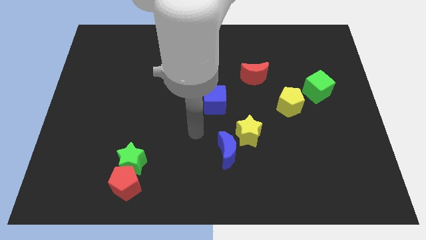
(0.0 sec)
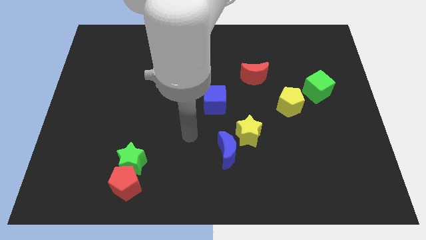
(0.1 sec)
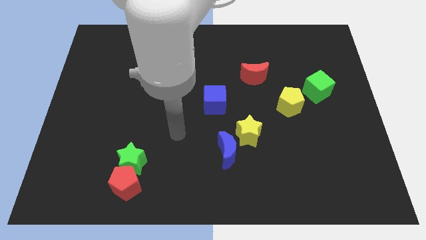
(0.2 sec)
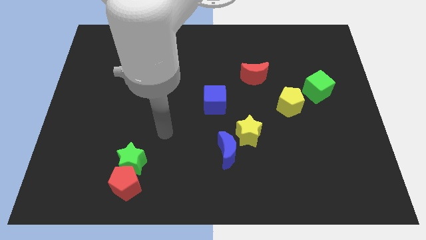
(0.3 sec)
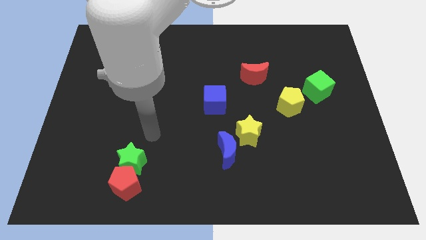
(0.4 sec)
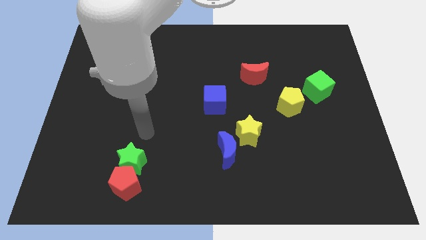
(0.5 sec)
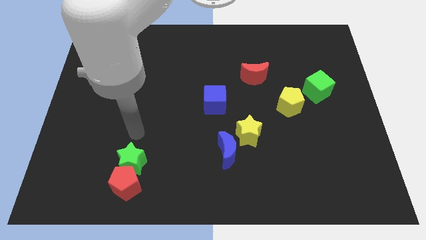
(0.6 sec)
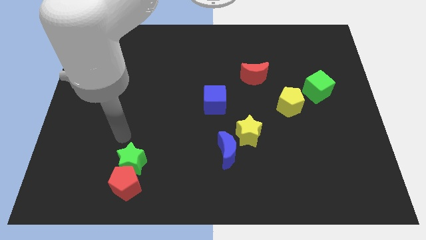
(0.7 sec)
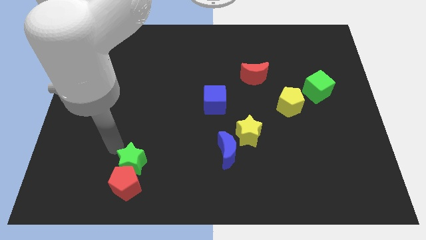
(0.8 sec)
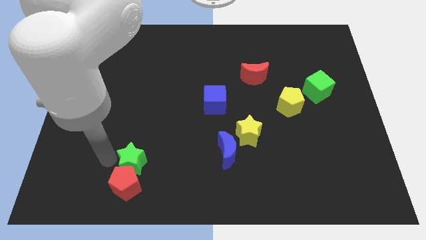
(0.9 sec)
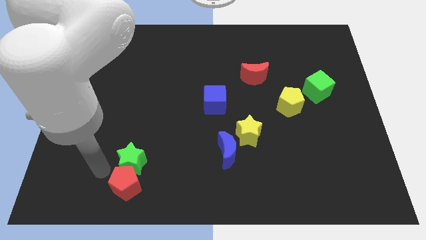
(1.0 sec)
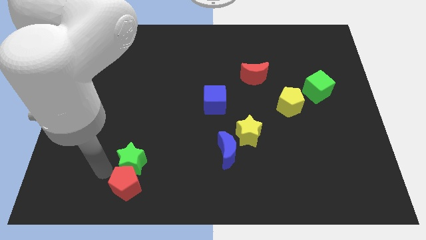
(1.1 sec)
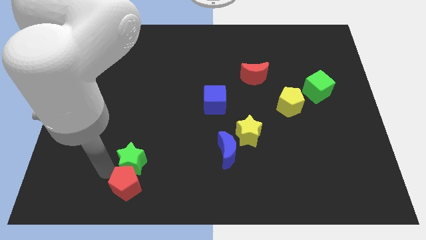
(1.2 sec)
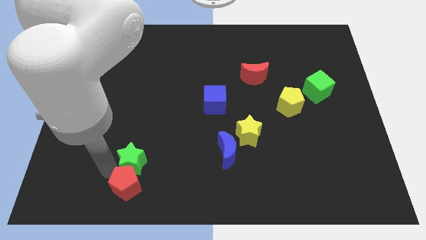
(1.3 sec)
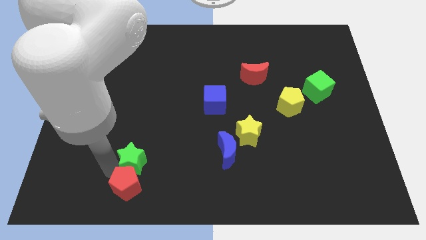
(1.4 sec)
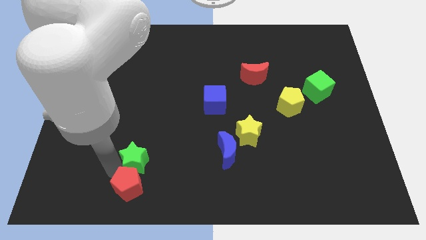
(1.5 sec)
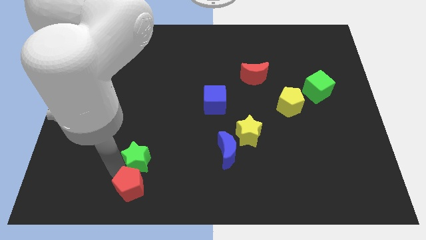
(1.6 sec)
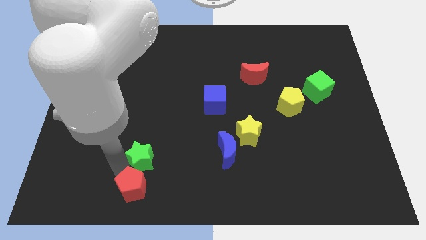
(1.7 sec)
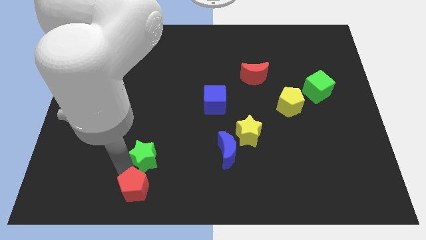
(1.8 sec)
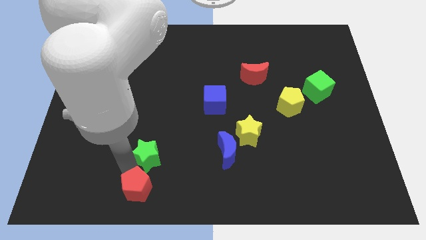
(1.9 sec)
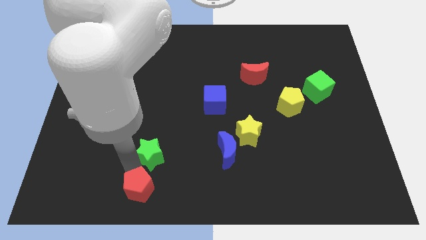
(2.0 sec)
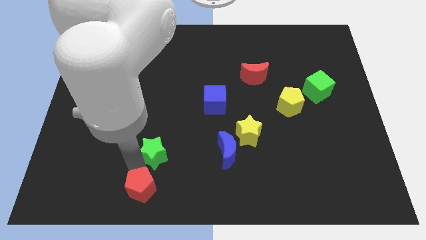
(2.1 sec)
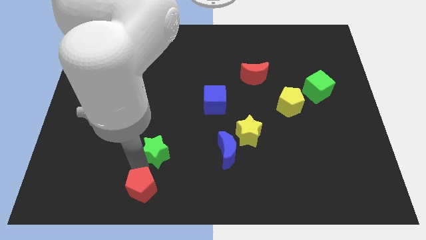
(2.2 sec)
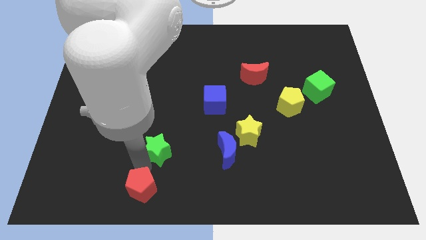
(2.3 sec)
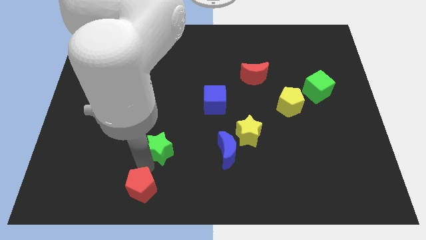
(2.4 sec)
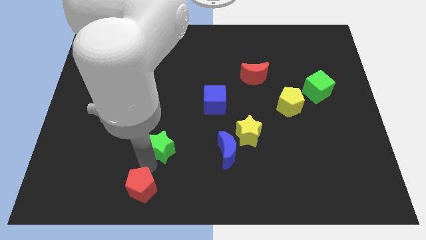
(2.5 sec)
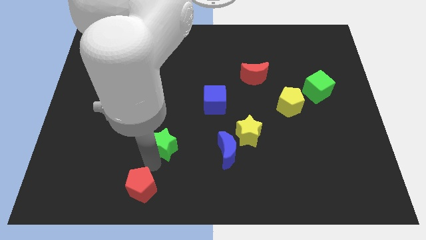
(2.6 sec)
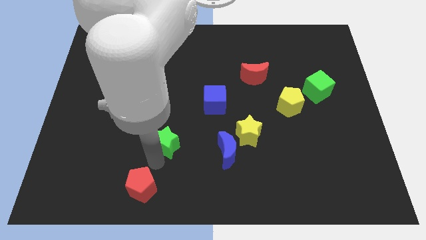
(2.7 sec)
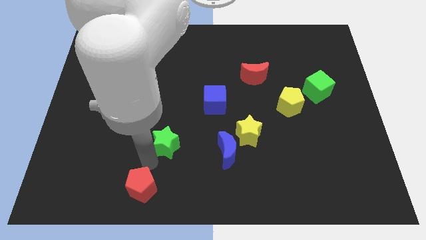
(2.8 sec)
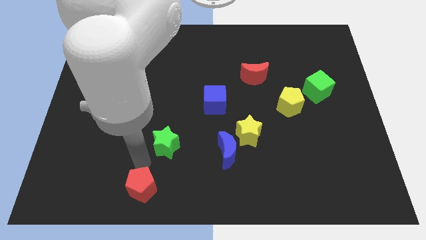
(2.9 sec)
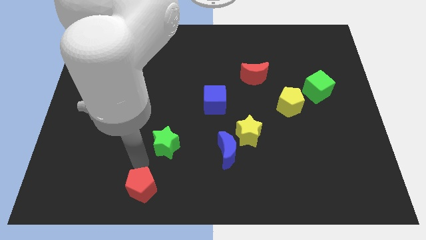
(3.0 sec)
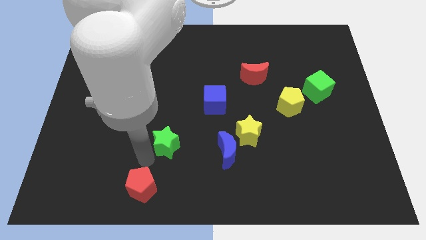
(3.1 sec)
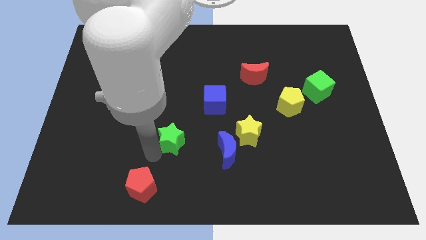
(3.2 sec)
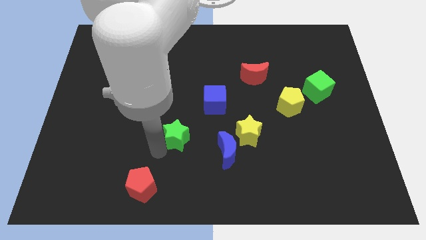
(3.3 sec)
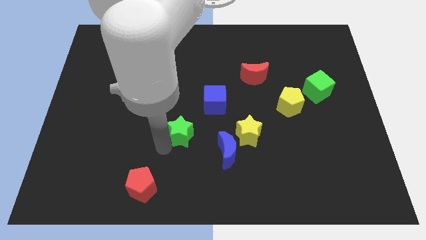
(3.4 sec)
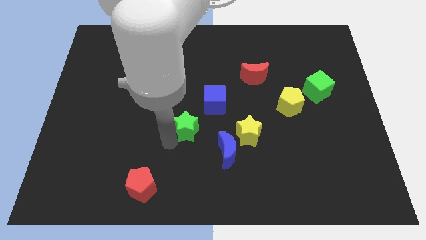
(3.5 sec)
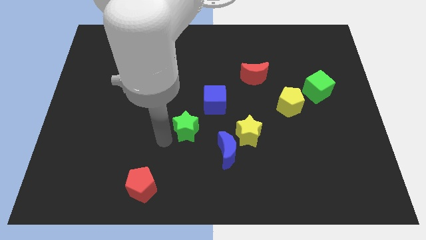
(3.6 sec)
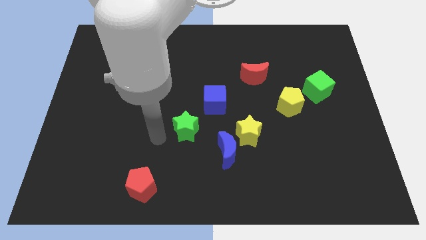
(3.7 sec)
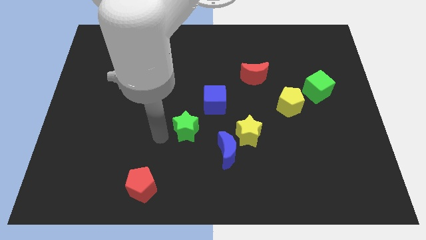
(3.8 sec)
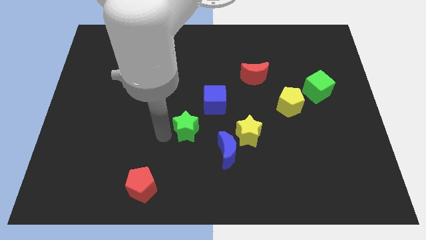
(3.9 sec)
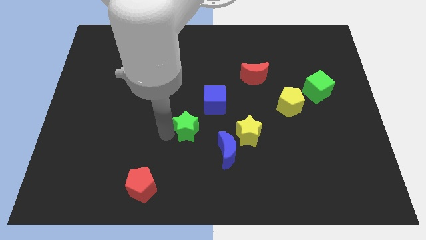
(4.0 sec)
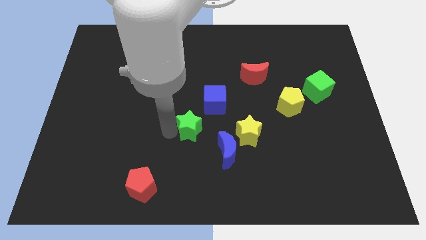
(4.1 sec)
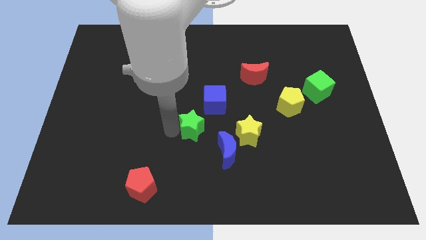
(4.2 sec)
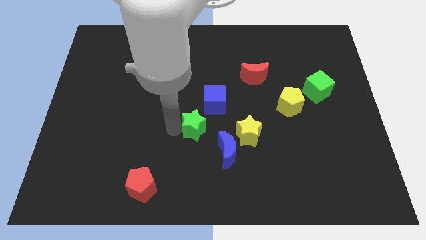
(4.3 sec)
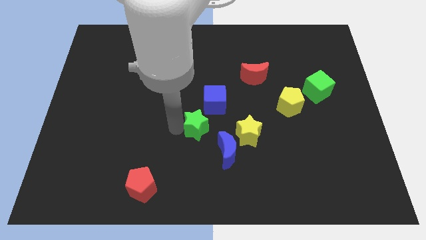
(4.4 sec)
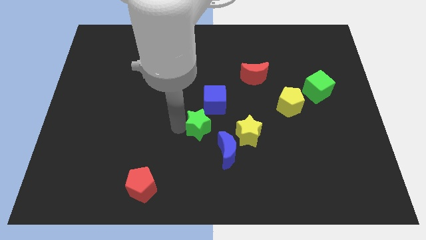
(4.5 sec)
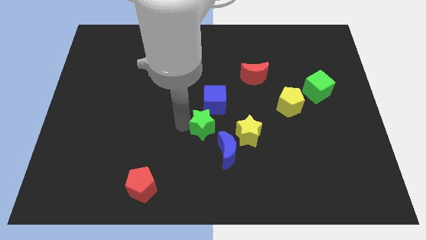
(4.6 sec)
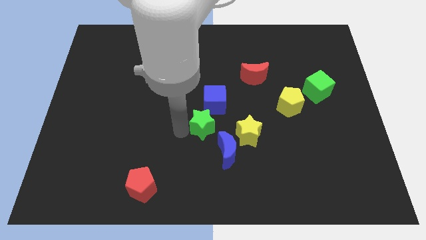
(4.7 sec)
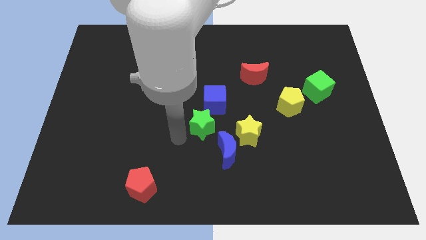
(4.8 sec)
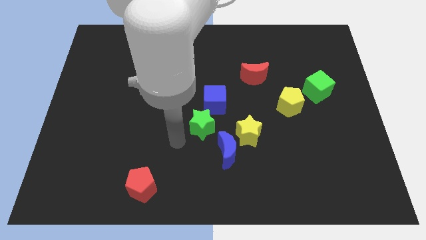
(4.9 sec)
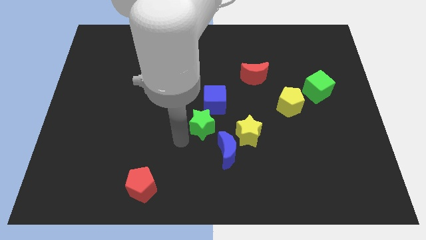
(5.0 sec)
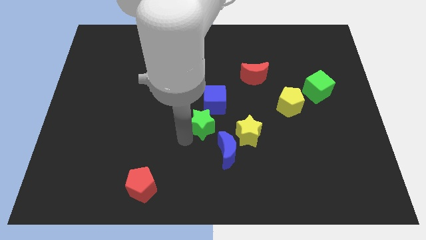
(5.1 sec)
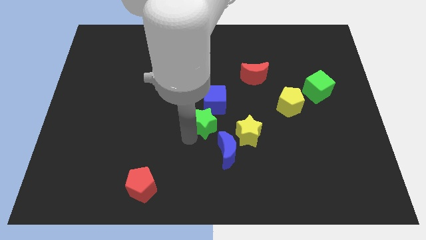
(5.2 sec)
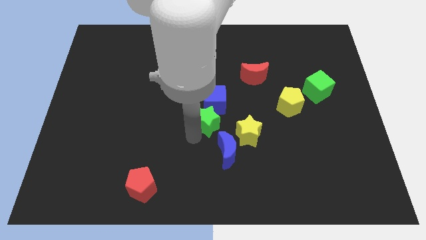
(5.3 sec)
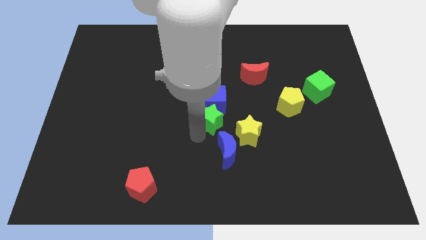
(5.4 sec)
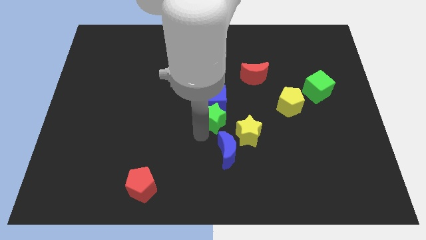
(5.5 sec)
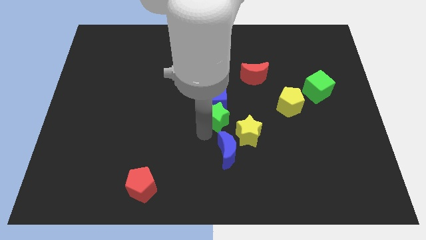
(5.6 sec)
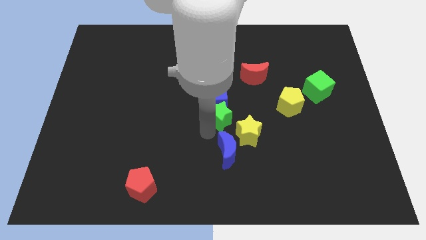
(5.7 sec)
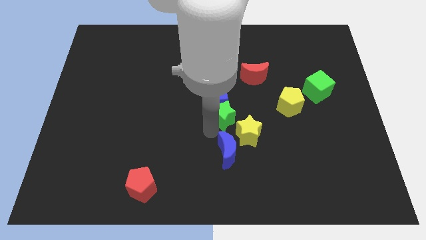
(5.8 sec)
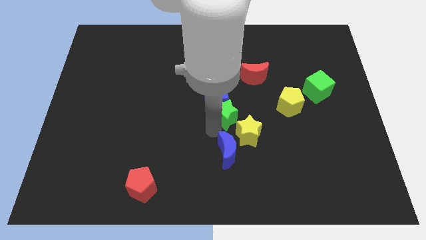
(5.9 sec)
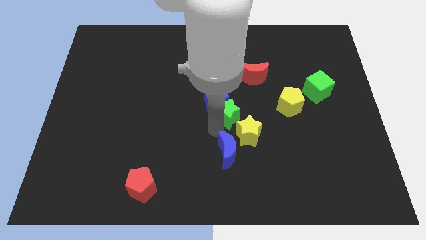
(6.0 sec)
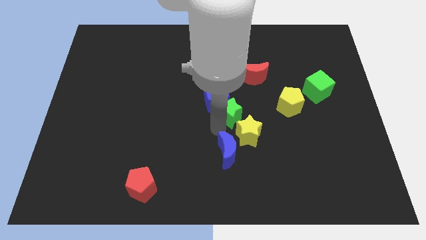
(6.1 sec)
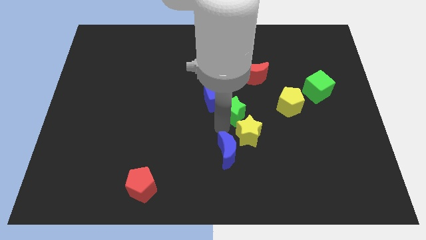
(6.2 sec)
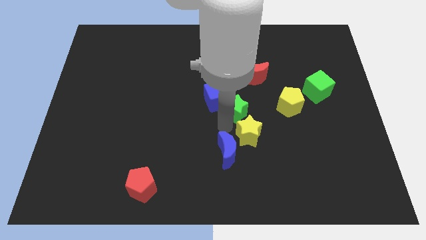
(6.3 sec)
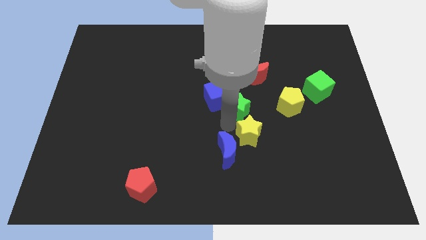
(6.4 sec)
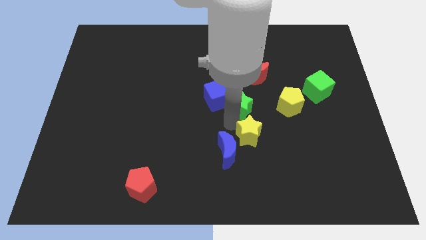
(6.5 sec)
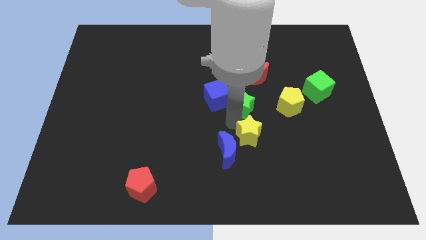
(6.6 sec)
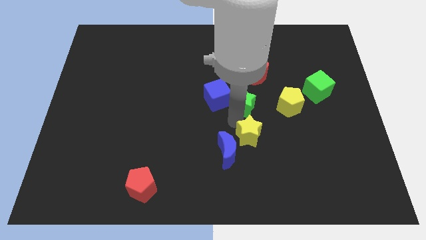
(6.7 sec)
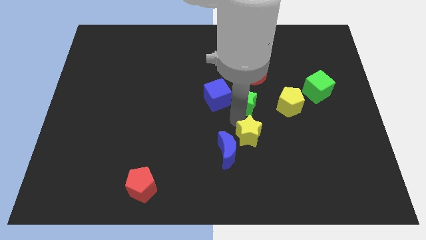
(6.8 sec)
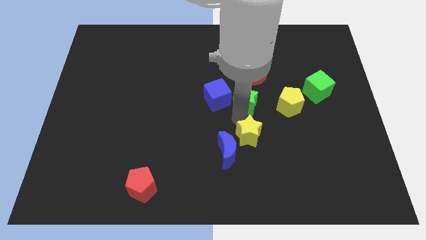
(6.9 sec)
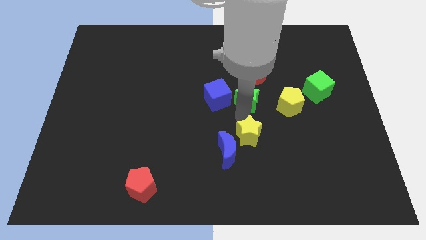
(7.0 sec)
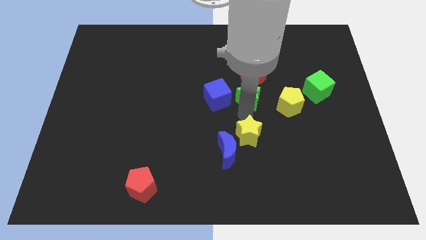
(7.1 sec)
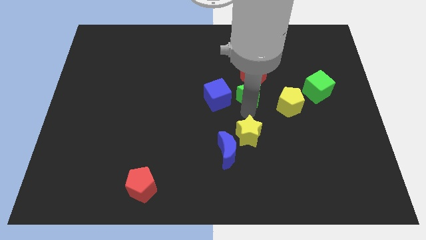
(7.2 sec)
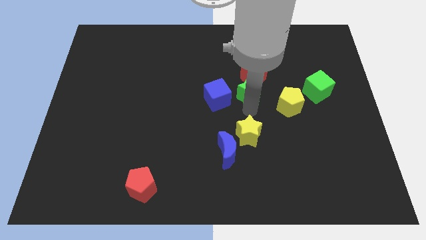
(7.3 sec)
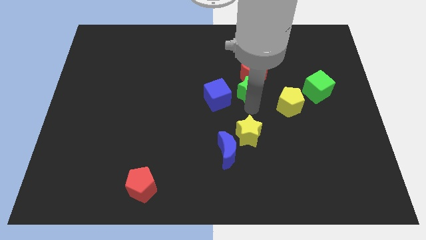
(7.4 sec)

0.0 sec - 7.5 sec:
push the green star close to the red moon
